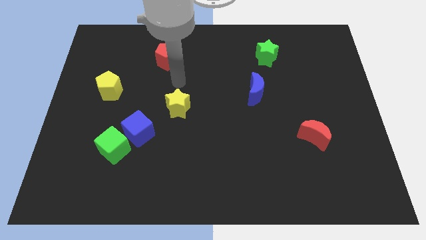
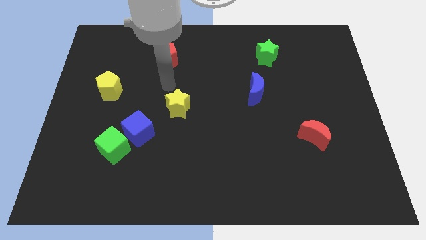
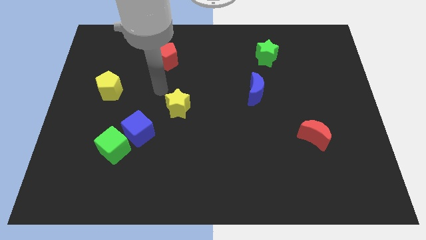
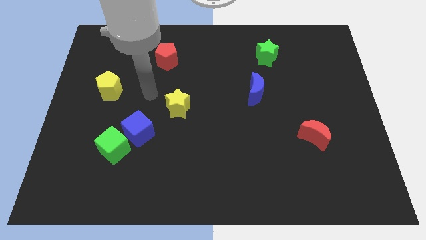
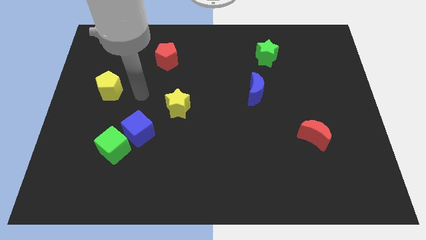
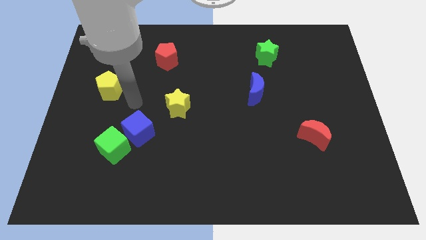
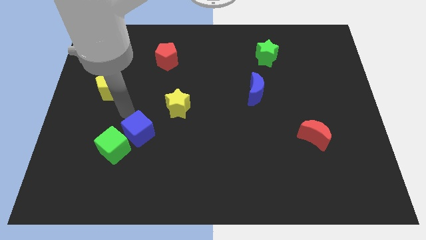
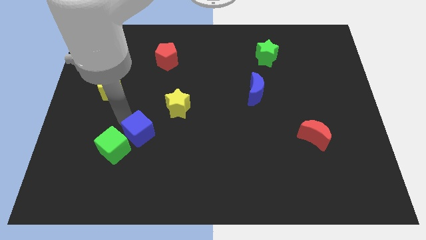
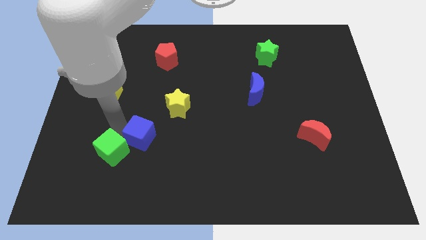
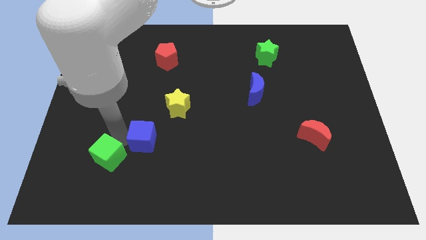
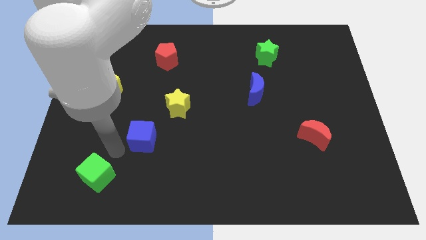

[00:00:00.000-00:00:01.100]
pull the blue cube apart from the green cube

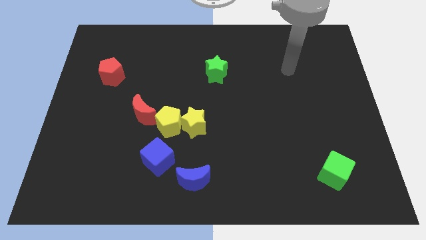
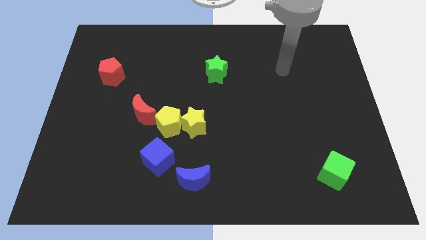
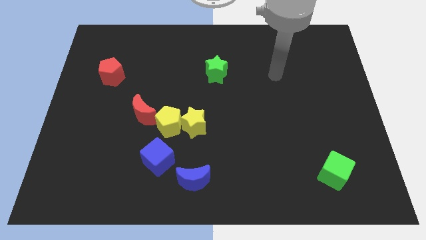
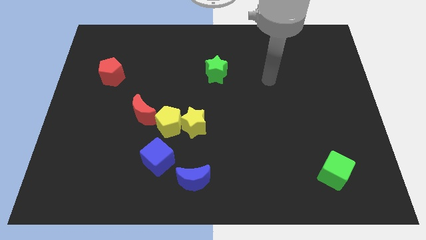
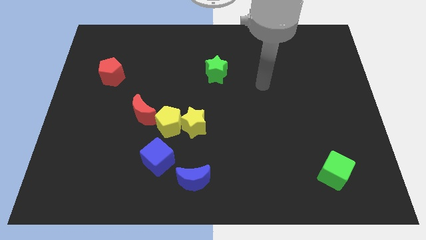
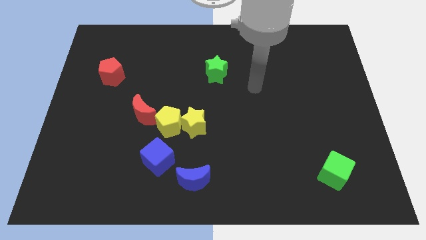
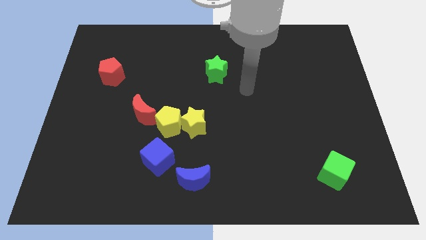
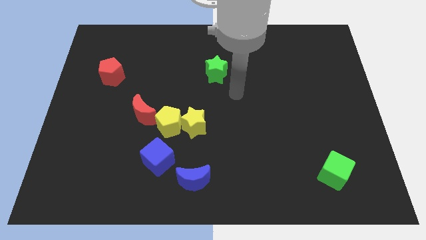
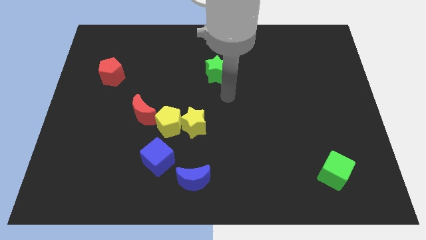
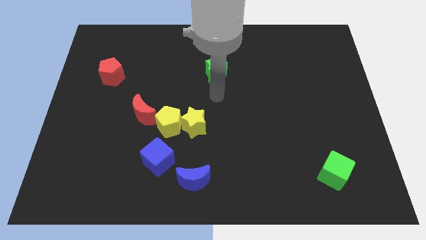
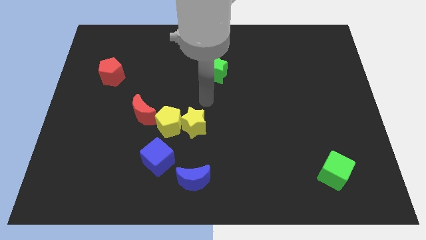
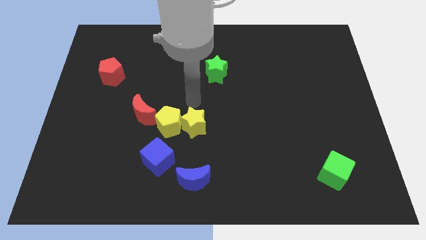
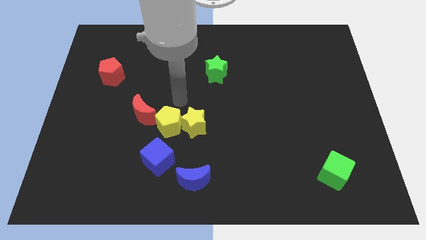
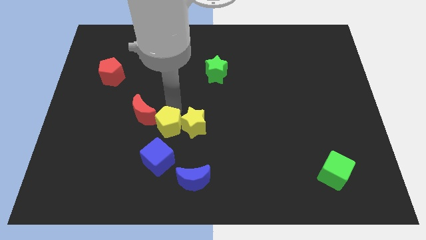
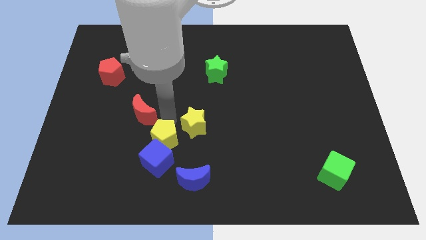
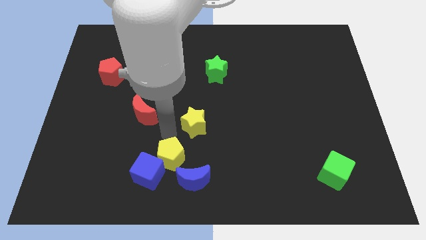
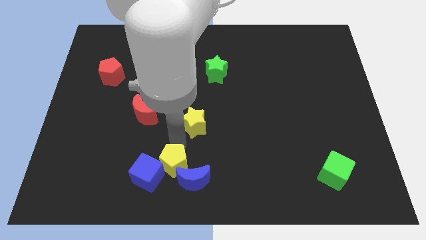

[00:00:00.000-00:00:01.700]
move the yellow star away from the yellow pentagon

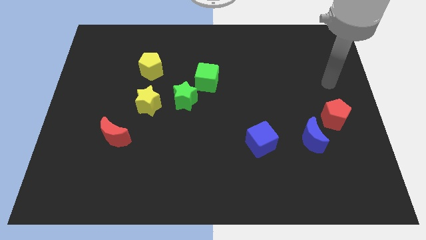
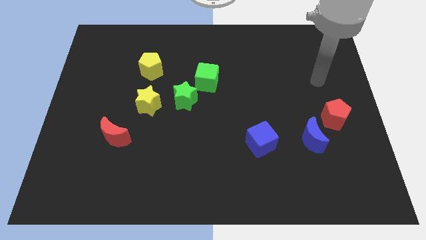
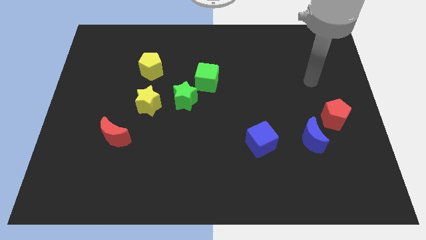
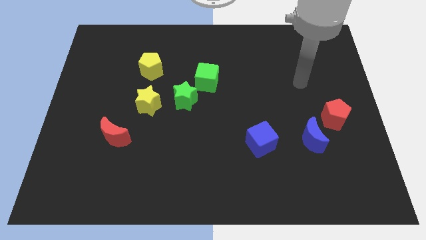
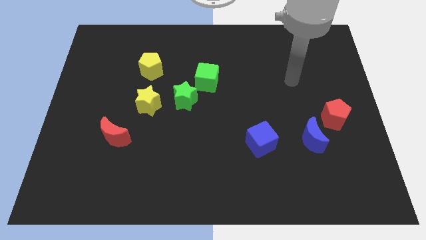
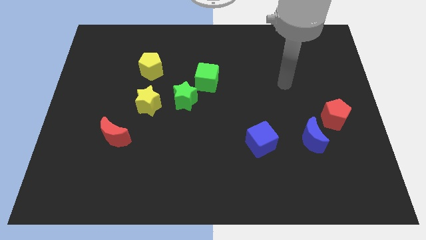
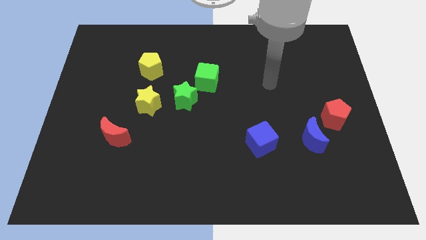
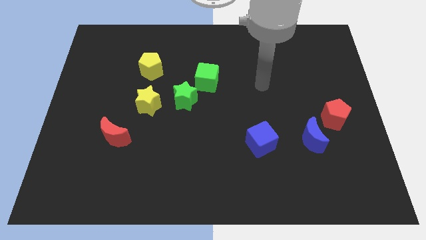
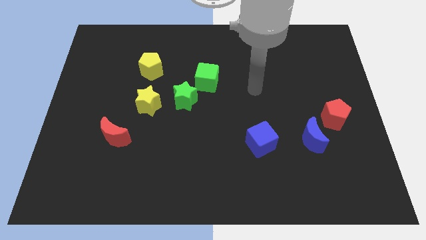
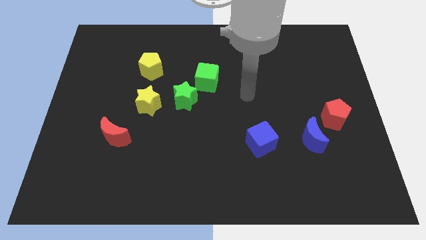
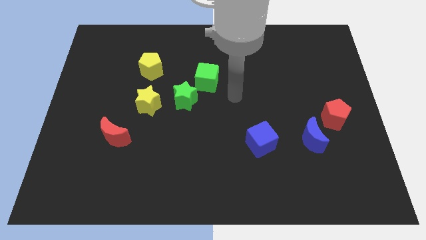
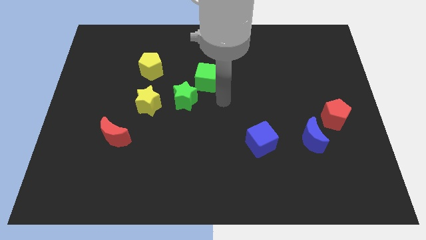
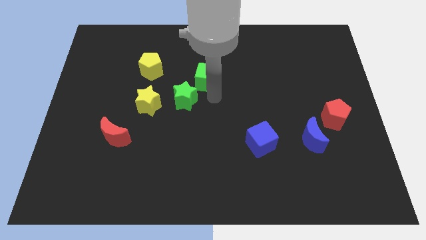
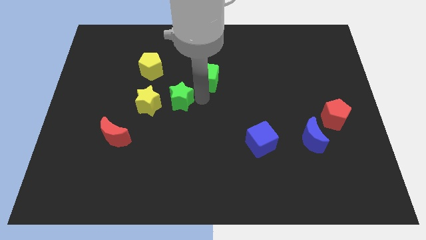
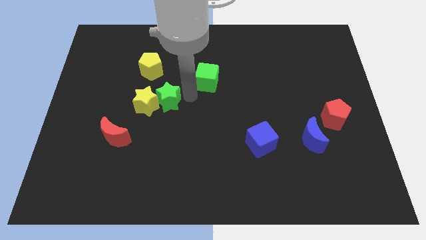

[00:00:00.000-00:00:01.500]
separate the green cube from the green star

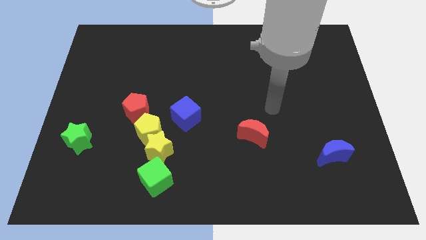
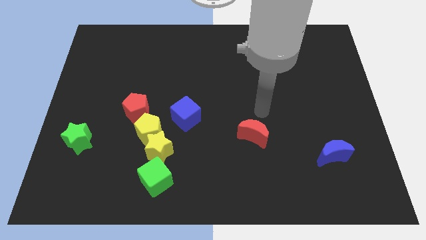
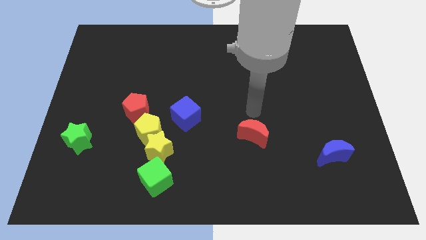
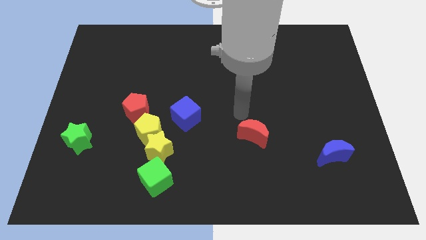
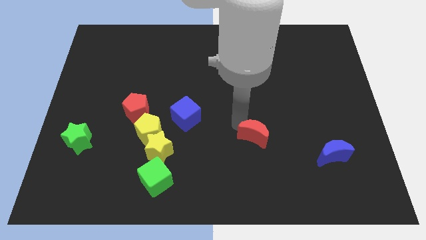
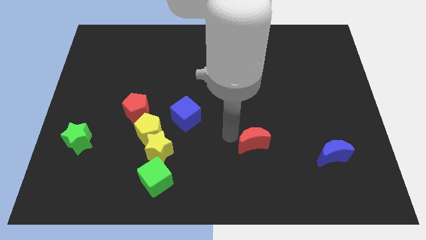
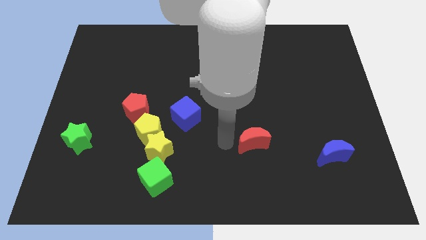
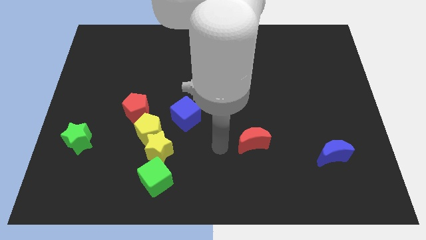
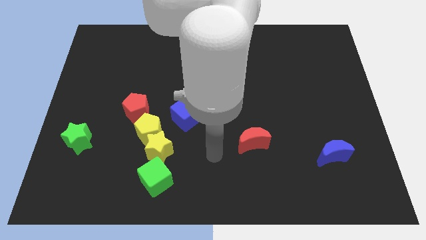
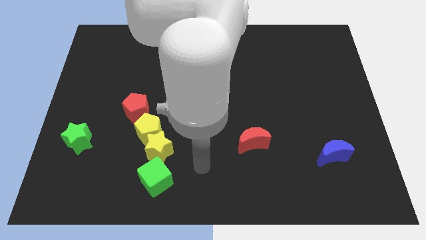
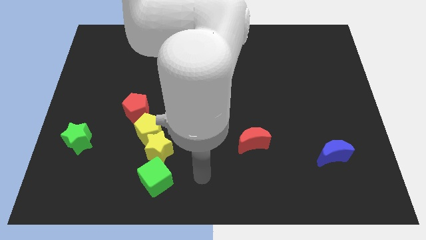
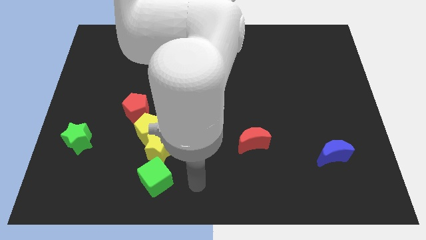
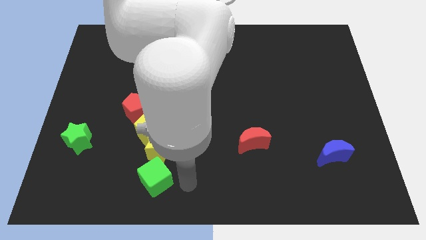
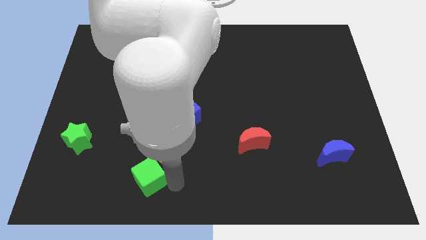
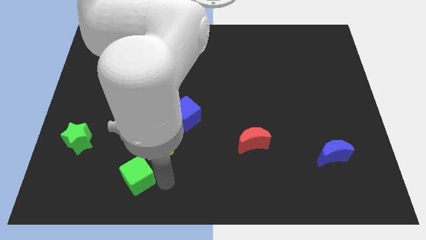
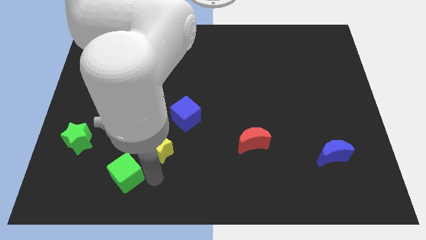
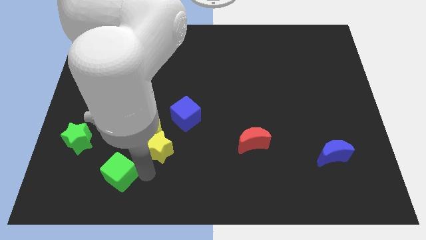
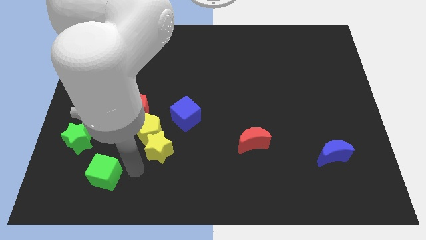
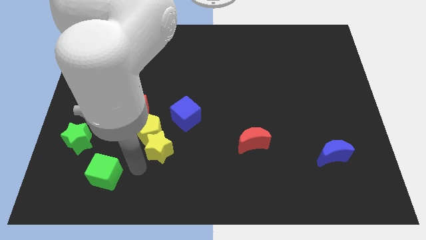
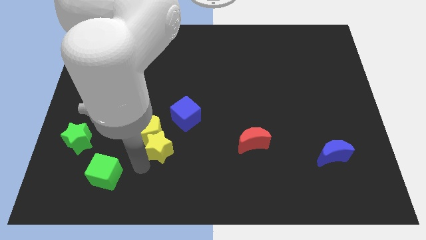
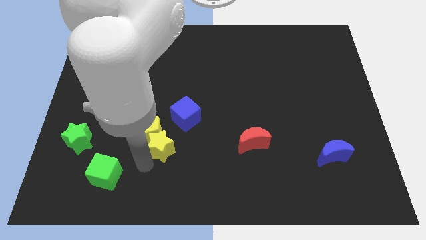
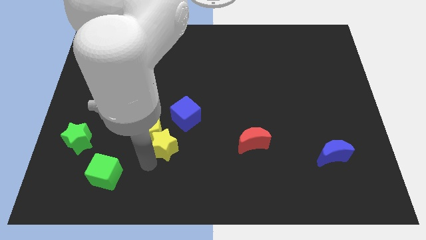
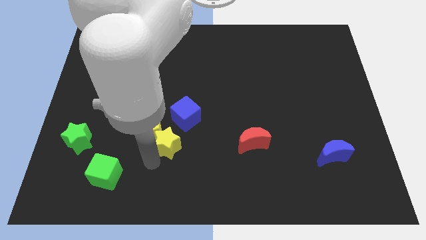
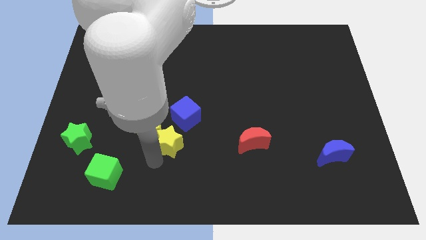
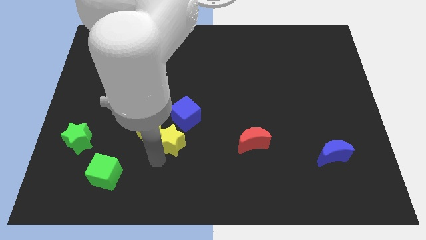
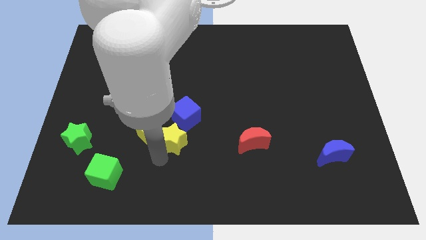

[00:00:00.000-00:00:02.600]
pull the yellow star apart from the yellow pentagon and green cube

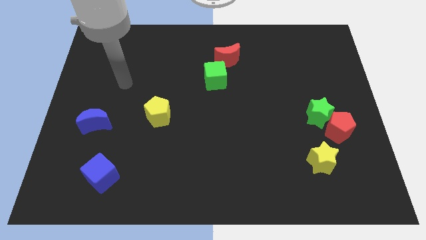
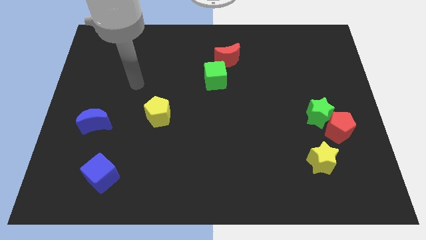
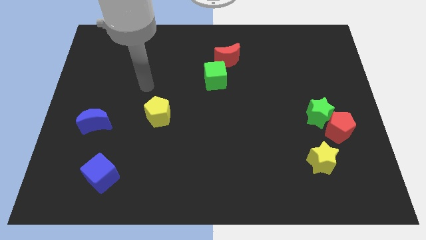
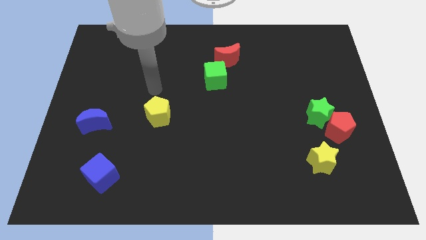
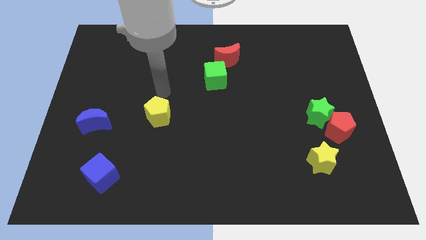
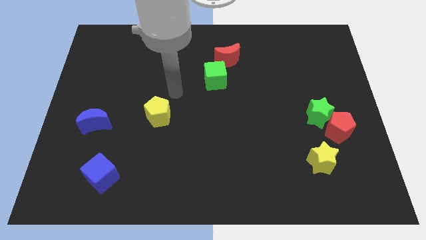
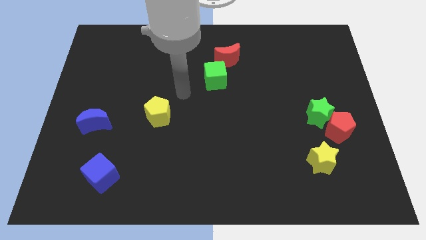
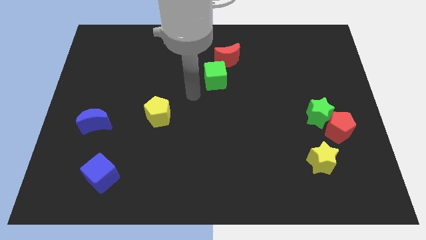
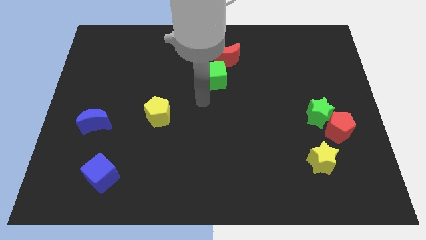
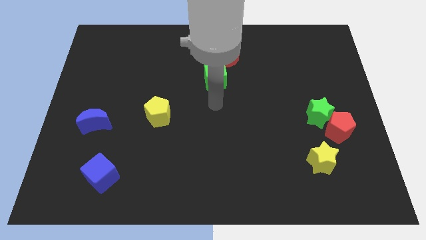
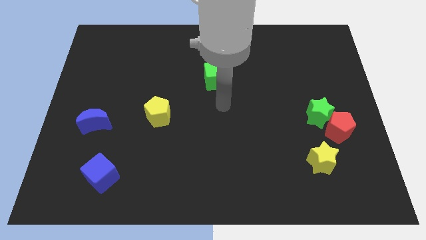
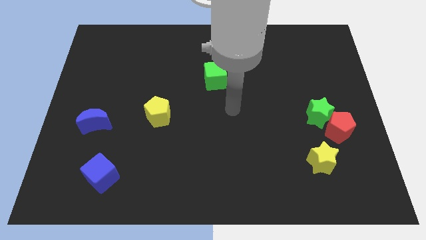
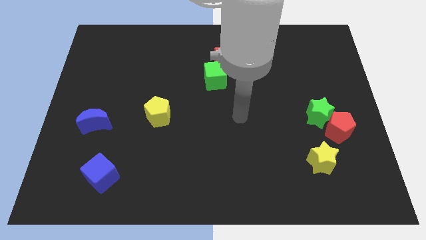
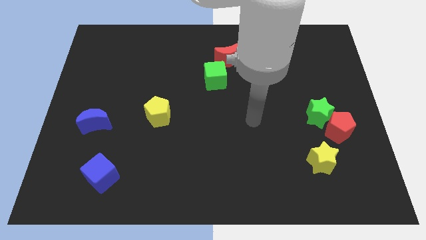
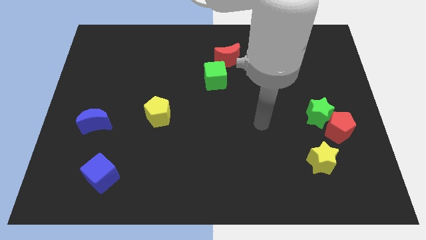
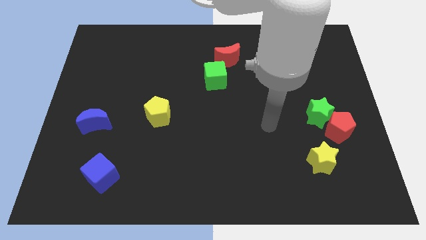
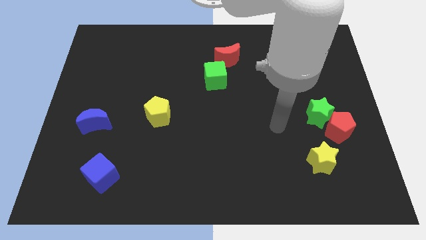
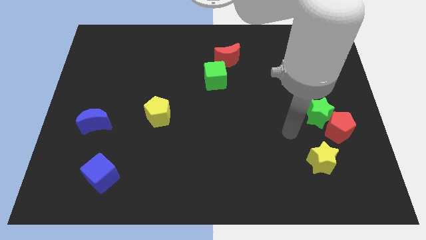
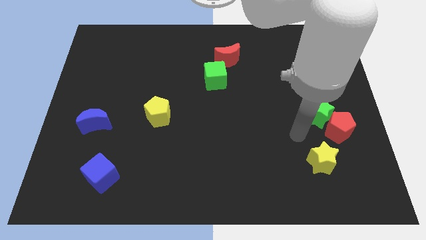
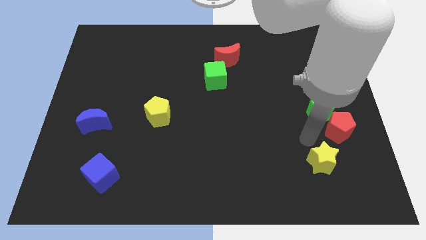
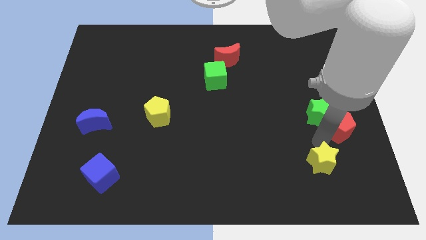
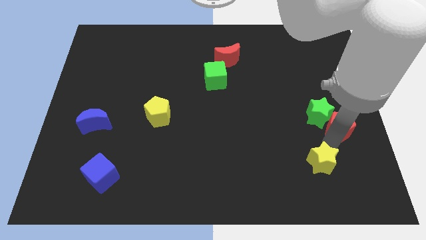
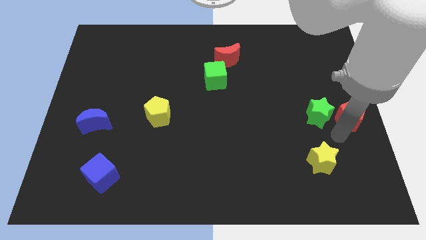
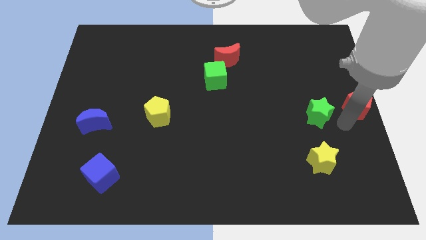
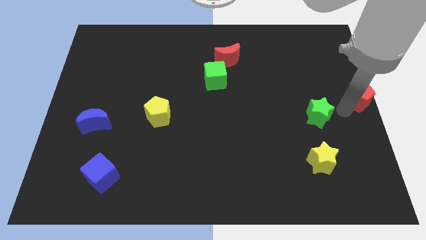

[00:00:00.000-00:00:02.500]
move the green star away from the red pentagon
